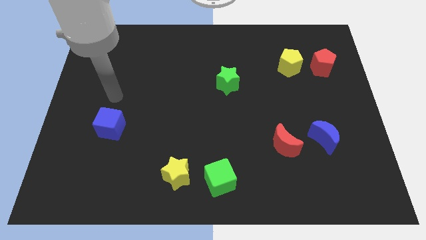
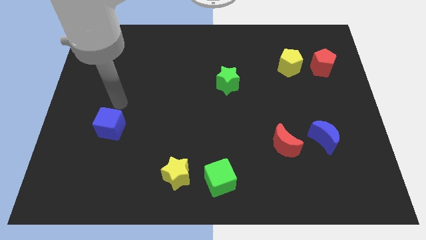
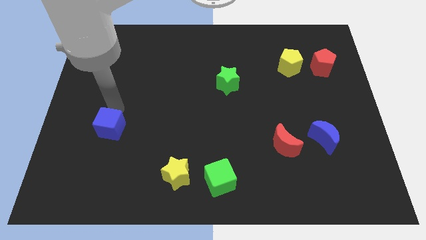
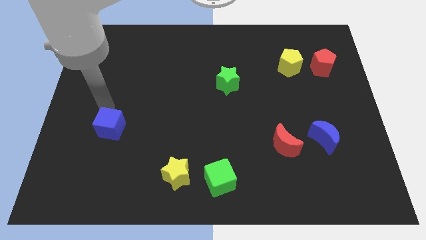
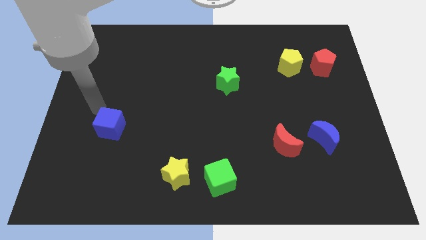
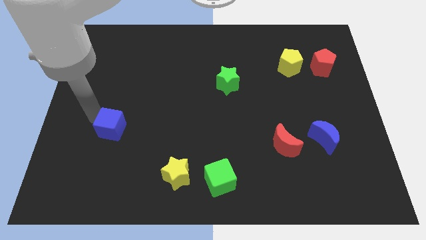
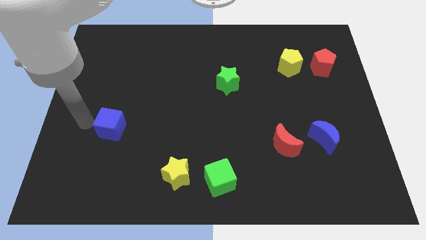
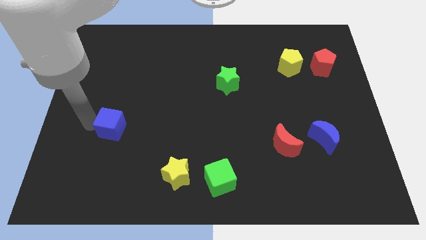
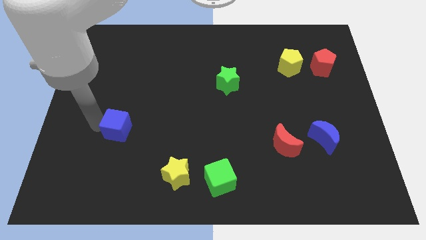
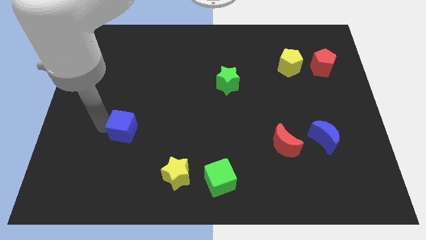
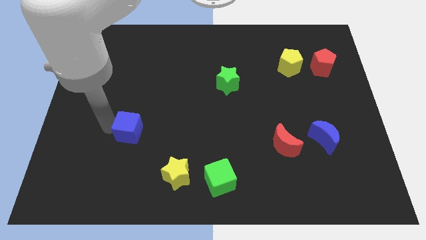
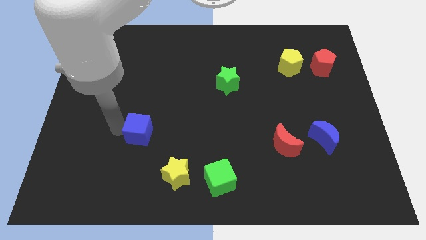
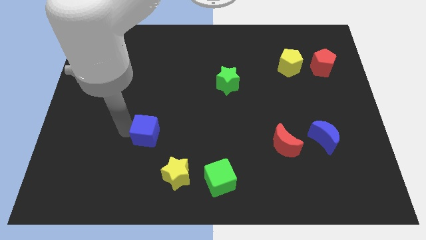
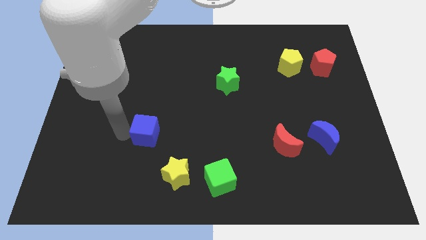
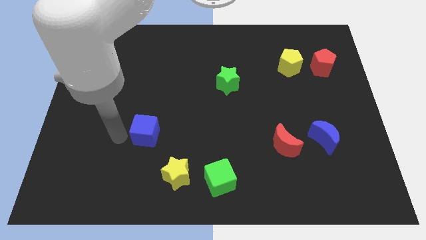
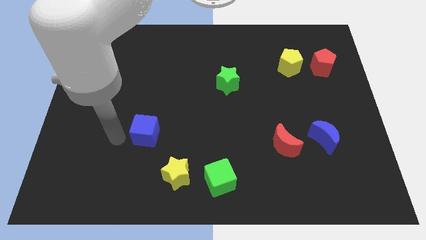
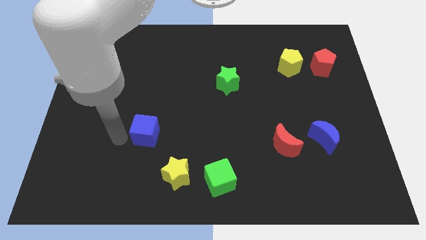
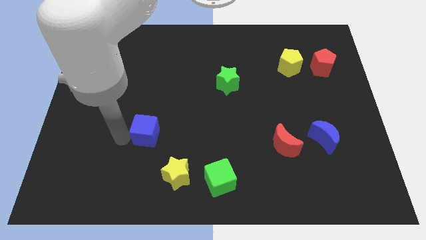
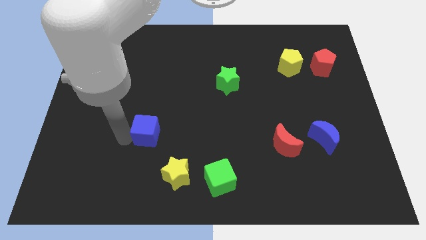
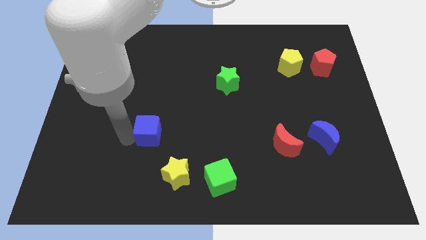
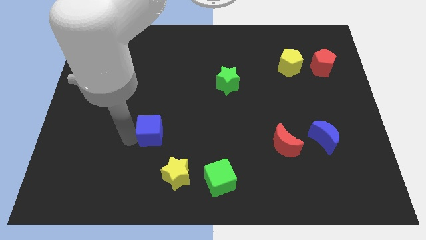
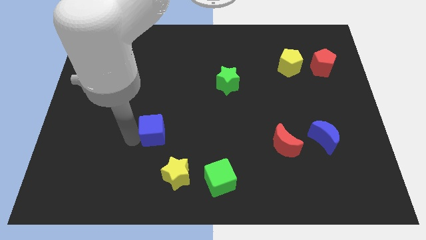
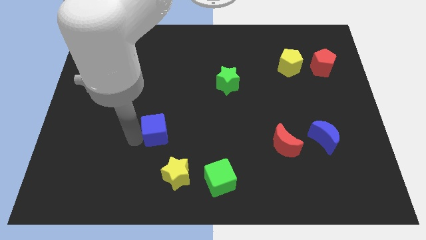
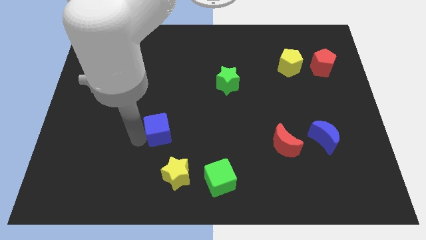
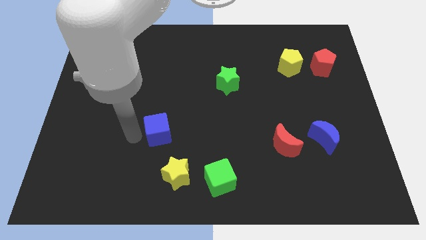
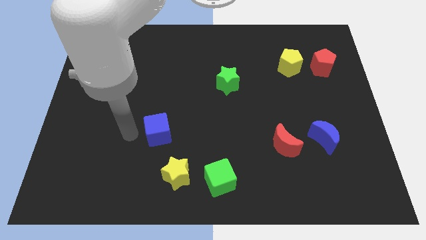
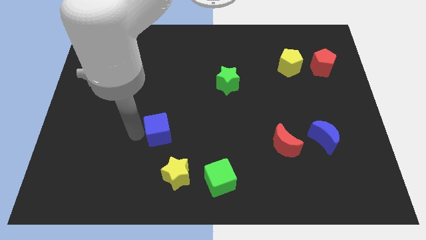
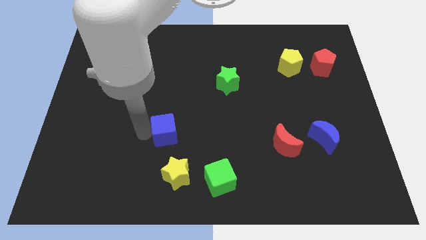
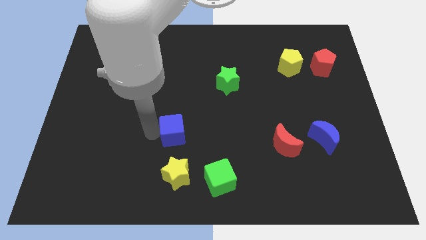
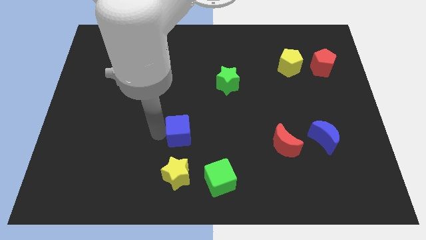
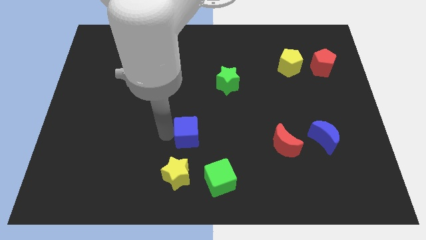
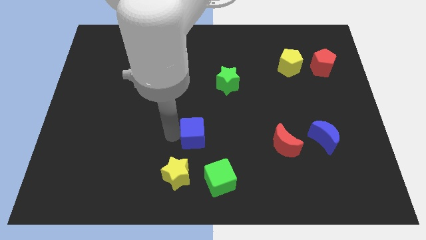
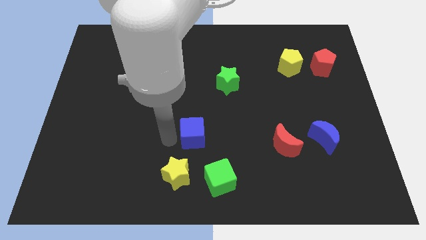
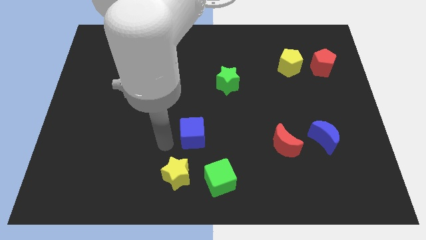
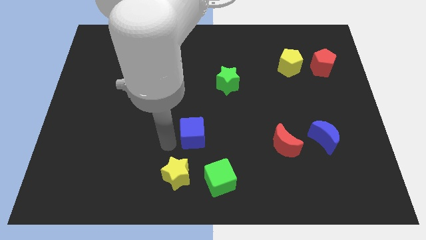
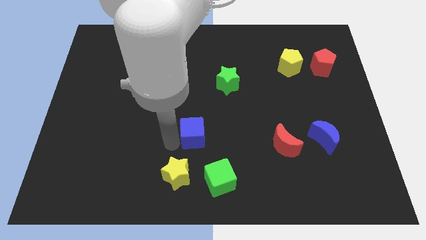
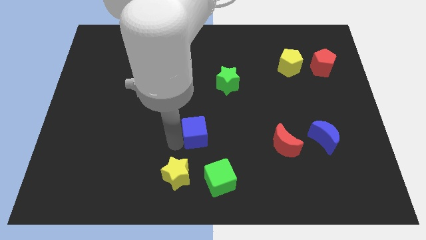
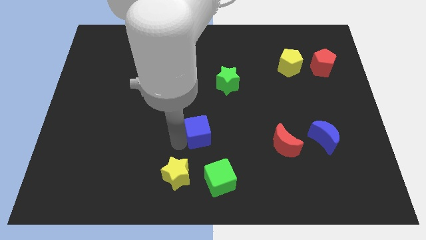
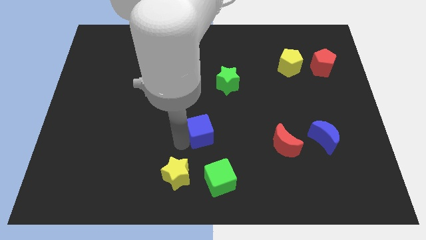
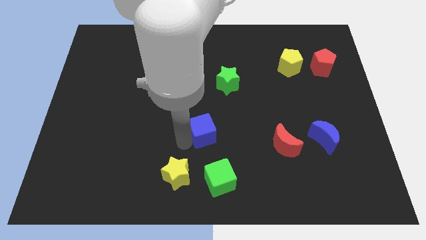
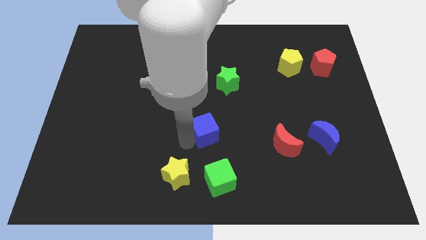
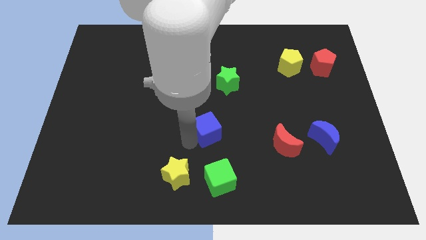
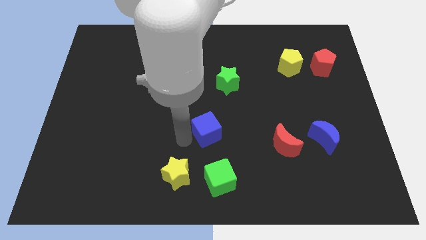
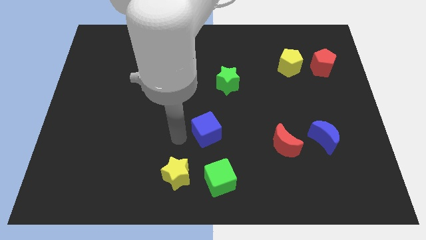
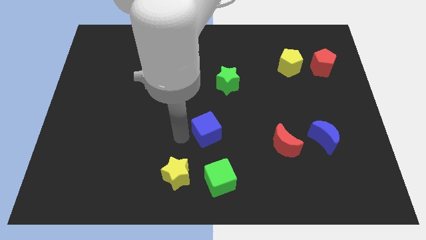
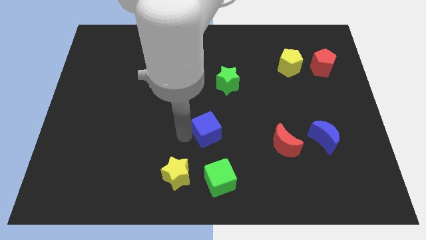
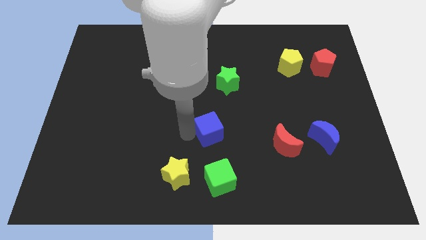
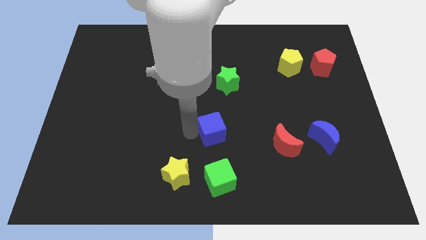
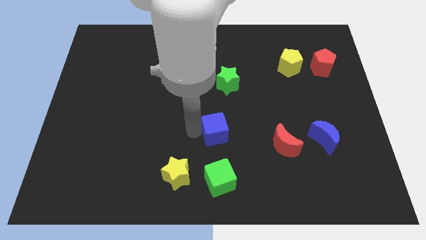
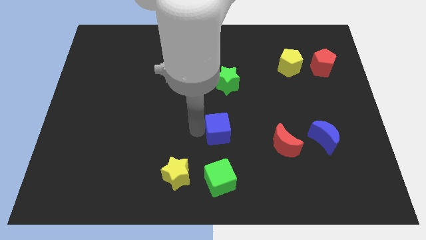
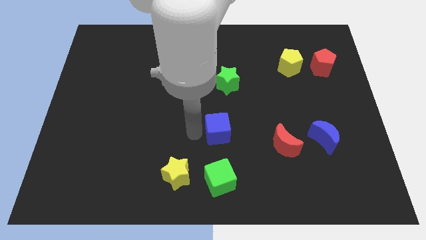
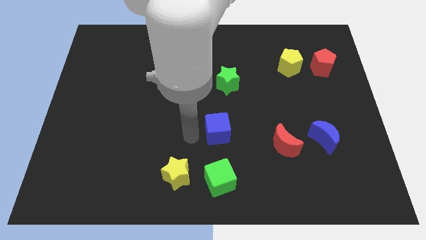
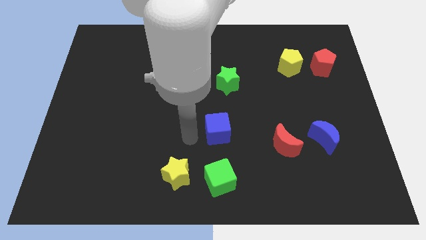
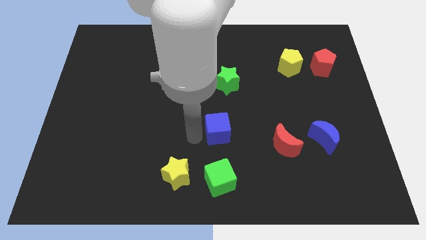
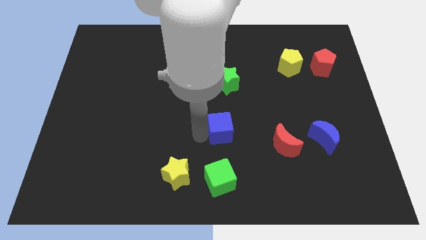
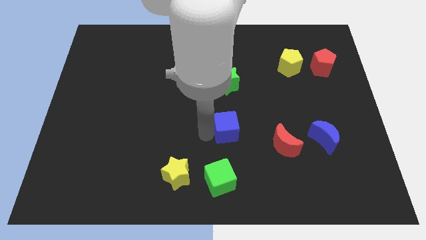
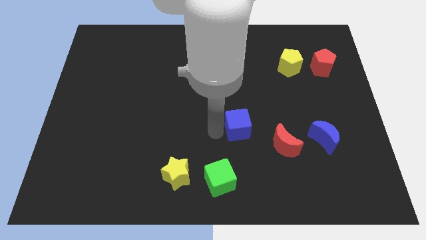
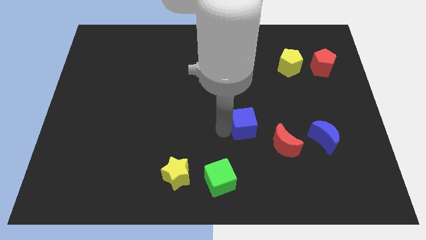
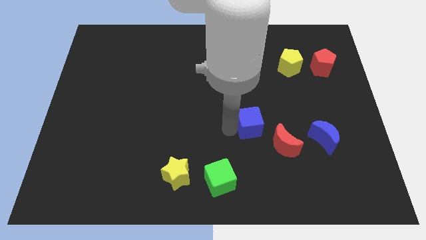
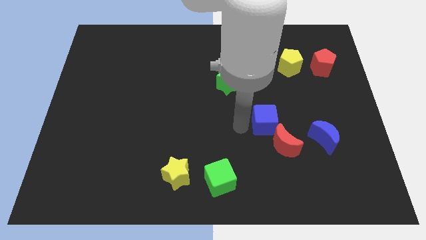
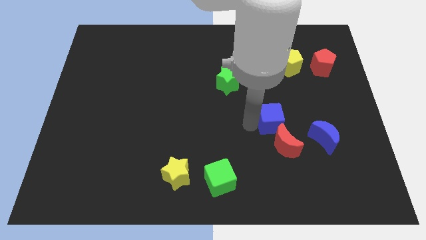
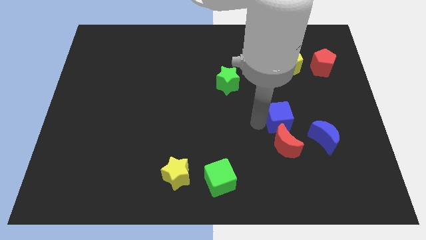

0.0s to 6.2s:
move the blue cube to the top left of the blue moon

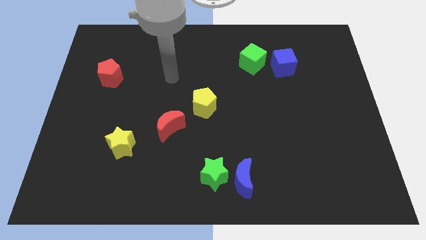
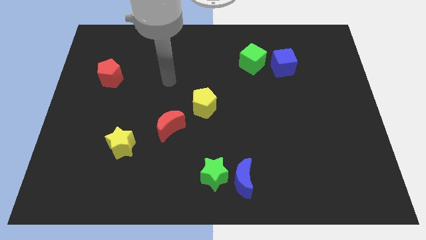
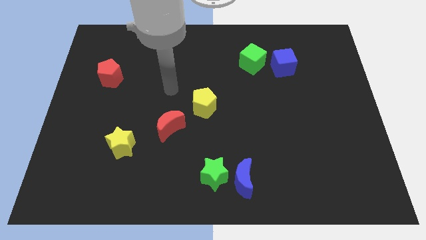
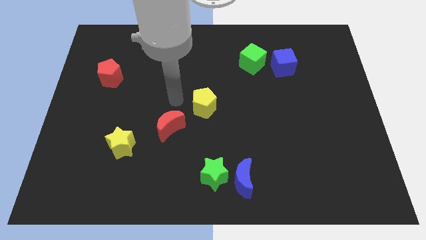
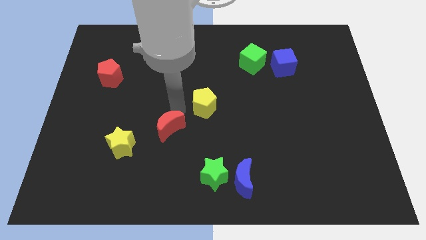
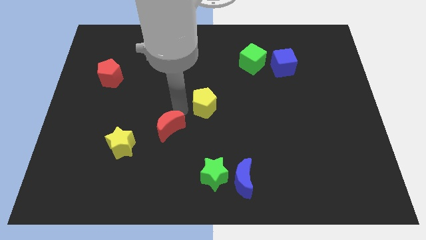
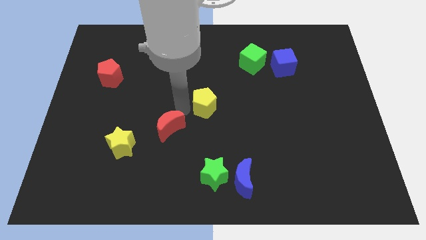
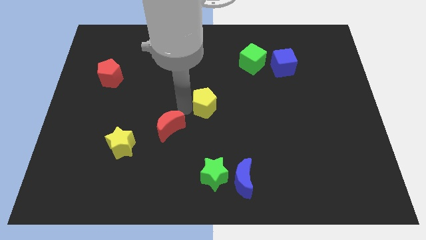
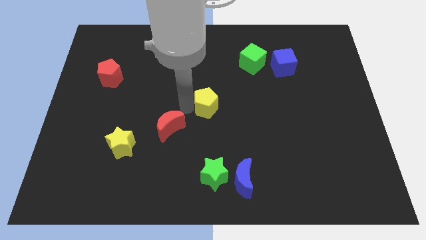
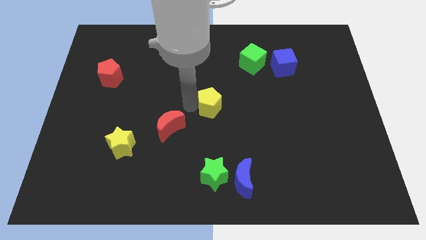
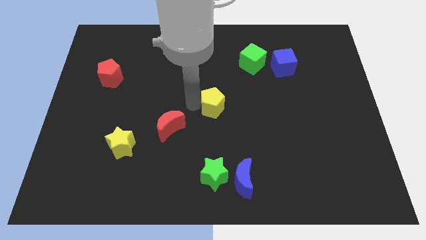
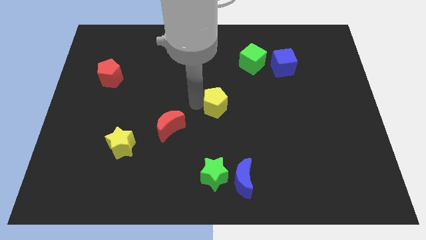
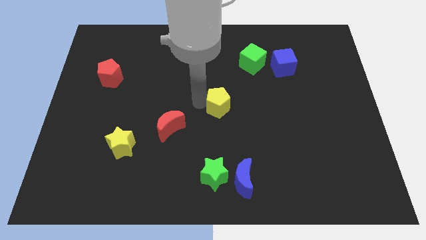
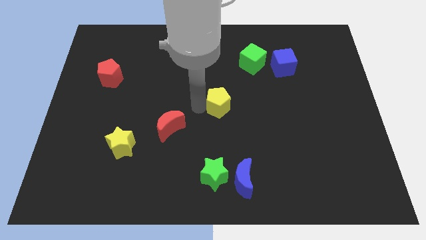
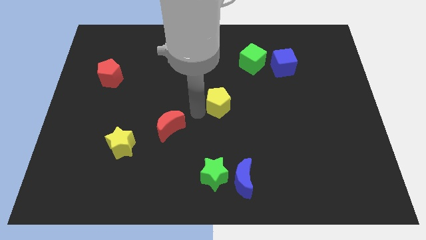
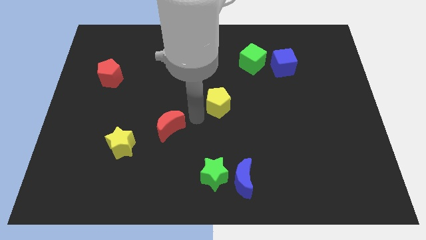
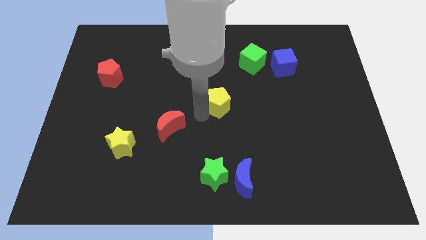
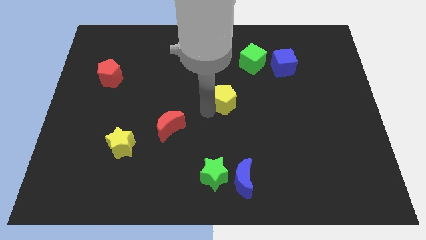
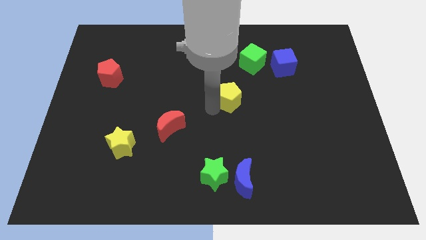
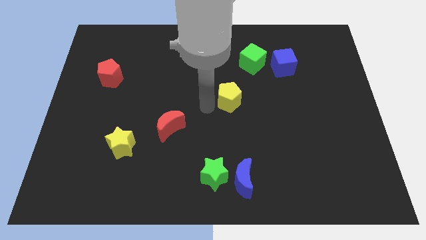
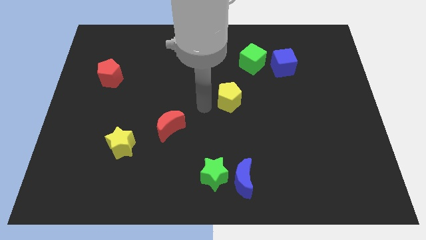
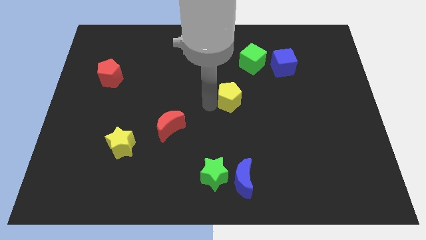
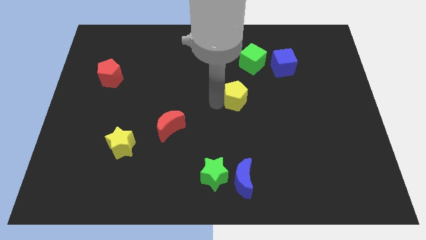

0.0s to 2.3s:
push the yellow pentagon to the bottom side of the green cube
